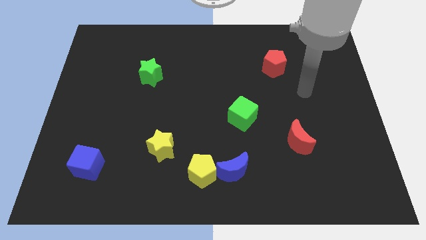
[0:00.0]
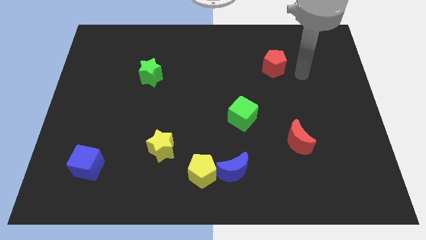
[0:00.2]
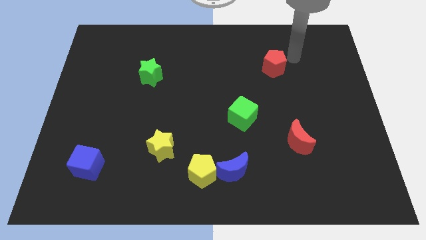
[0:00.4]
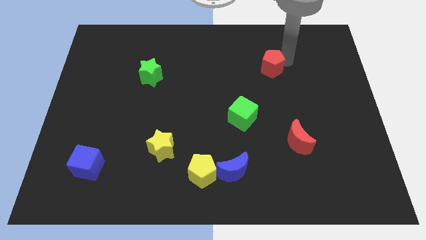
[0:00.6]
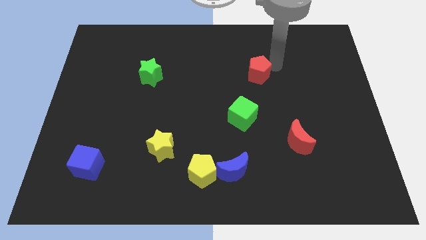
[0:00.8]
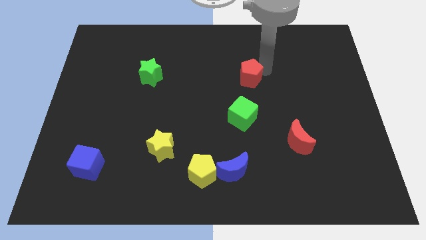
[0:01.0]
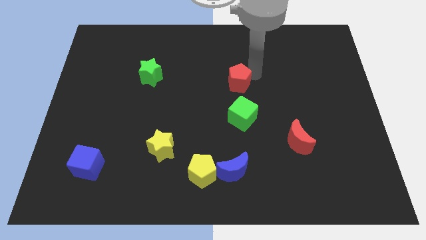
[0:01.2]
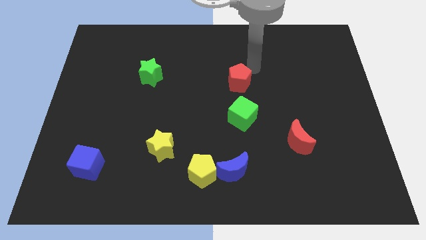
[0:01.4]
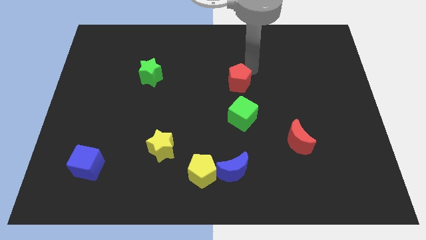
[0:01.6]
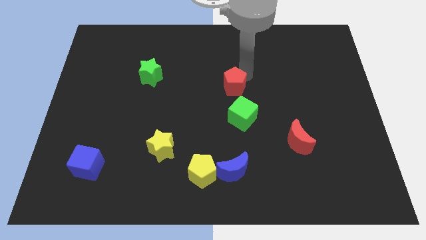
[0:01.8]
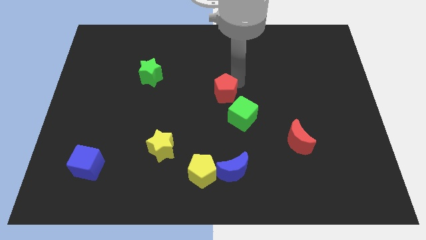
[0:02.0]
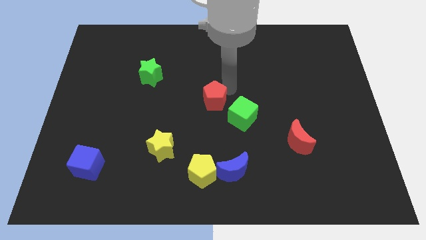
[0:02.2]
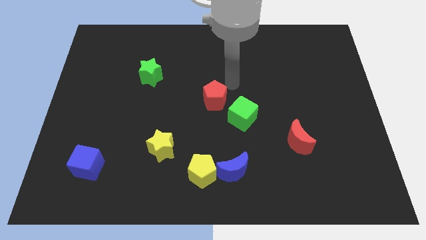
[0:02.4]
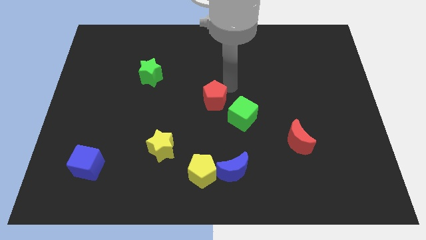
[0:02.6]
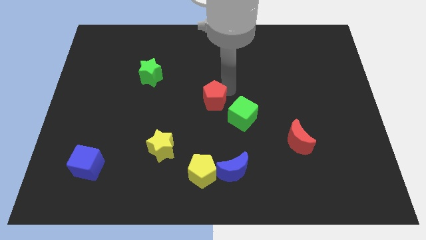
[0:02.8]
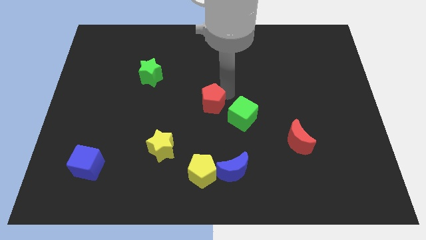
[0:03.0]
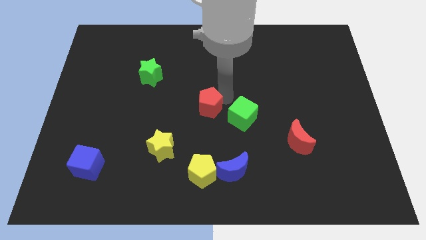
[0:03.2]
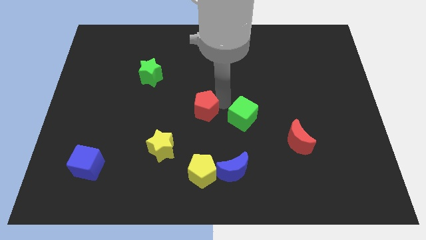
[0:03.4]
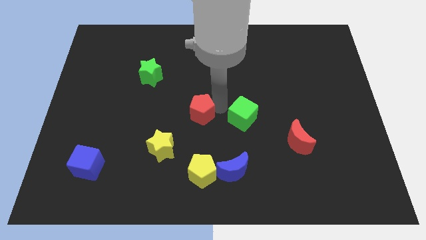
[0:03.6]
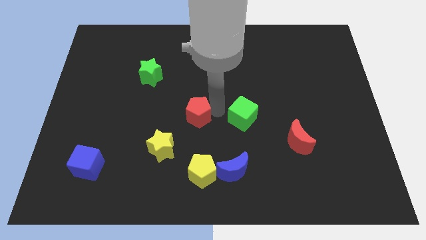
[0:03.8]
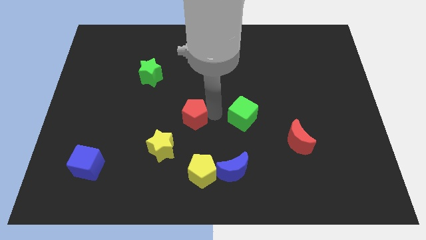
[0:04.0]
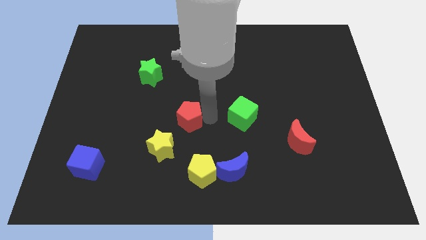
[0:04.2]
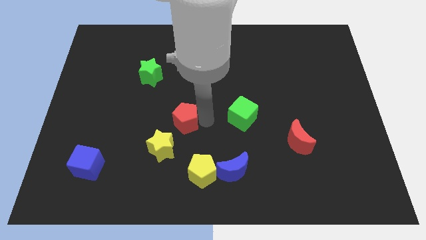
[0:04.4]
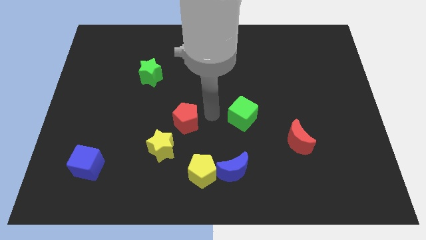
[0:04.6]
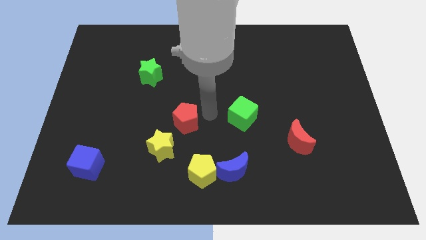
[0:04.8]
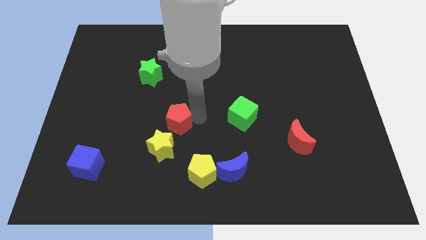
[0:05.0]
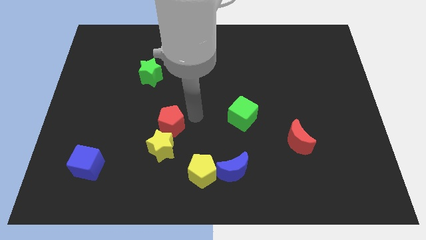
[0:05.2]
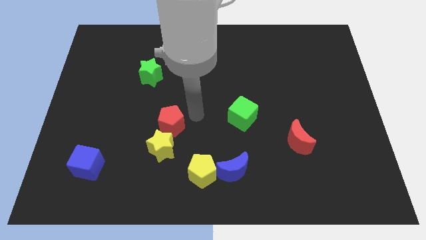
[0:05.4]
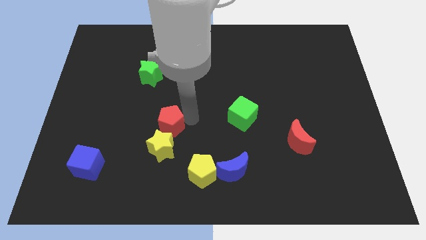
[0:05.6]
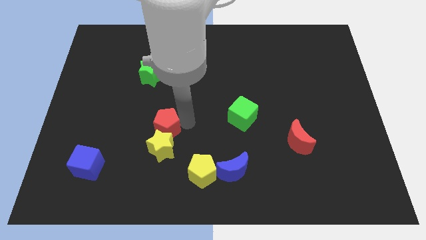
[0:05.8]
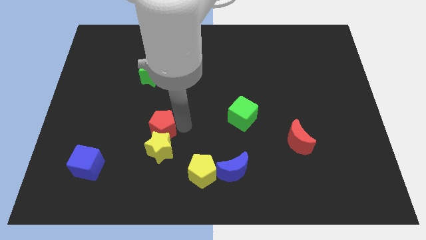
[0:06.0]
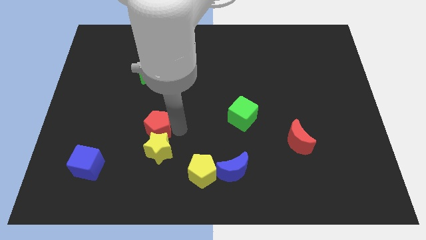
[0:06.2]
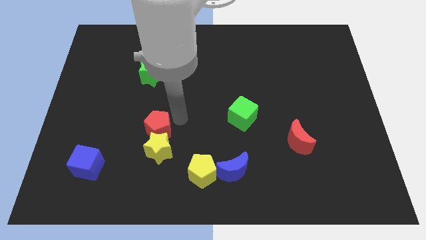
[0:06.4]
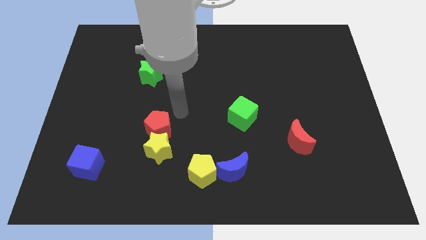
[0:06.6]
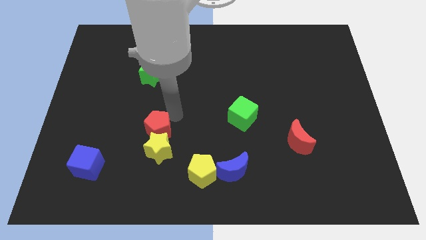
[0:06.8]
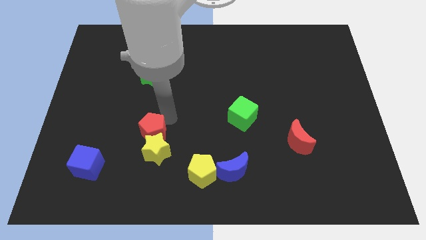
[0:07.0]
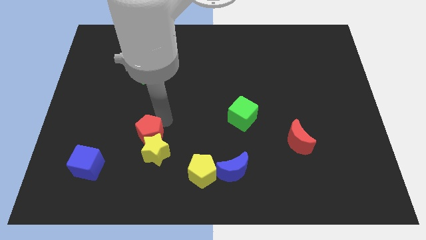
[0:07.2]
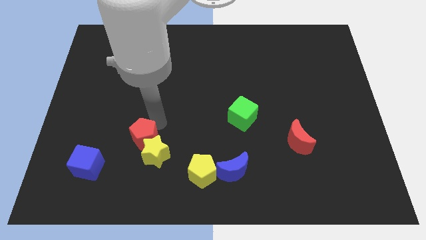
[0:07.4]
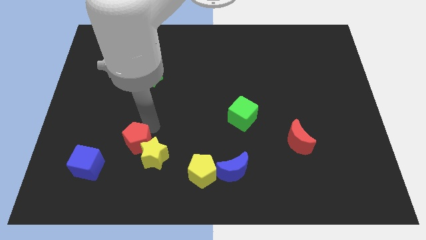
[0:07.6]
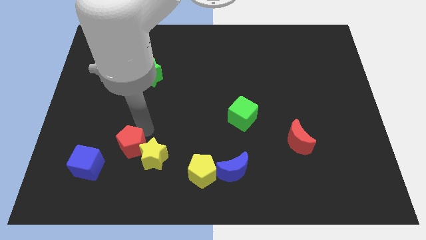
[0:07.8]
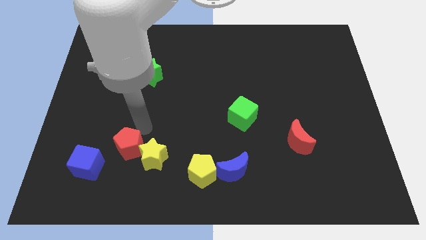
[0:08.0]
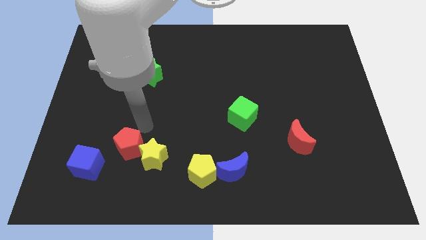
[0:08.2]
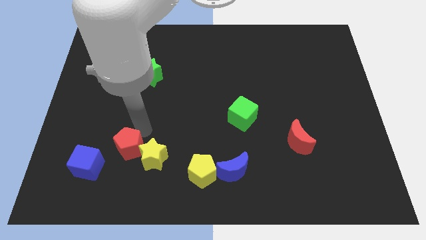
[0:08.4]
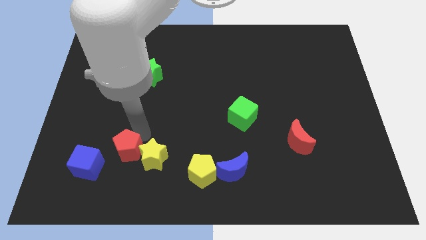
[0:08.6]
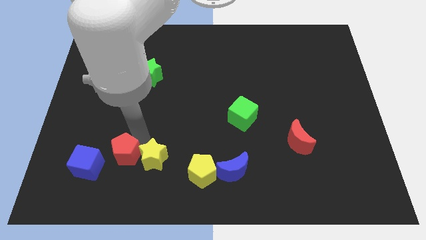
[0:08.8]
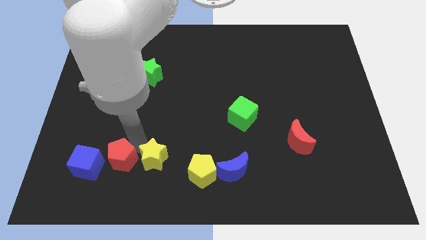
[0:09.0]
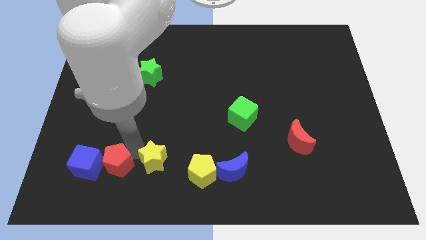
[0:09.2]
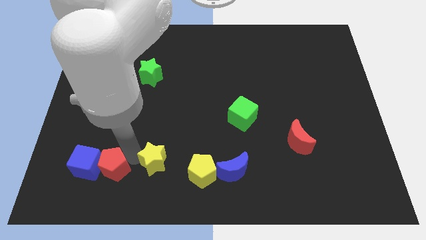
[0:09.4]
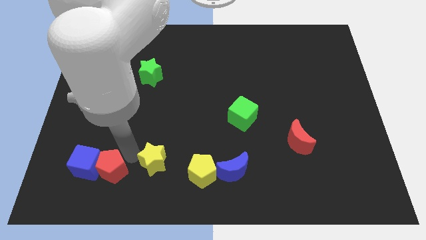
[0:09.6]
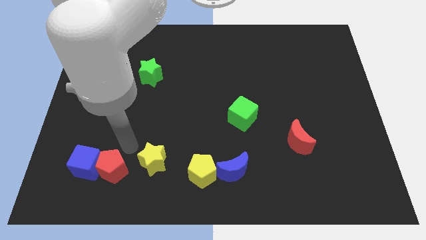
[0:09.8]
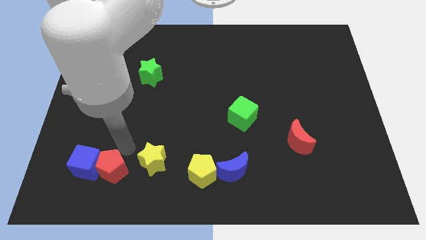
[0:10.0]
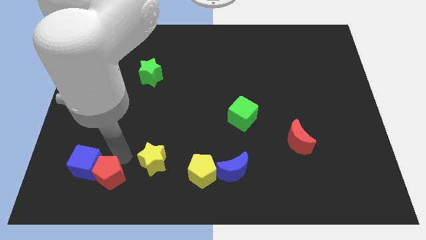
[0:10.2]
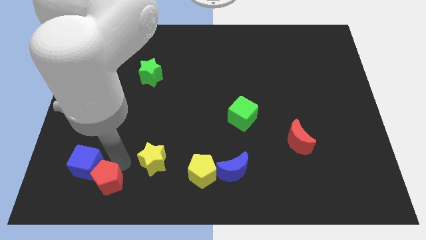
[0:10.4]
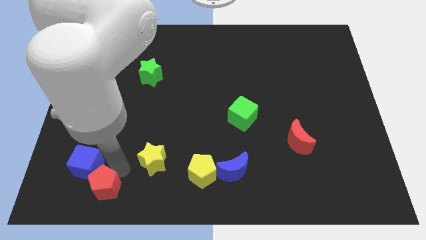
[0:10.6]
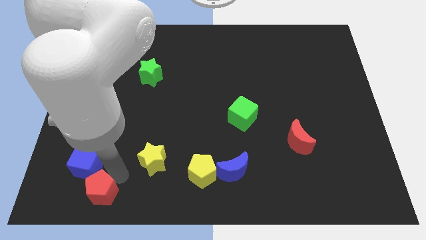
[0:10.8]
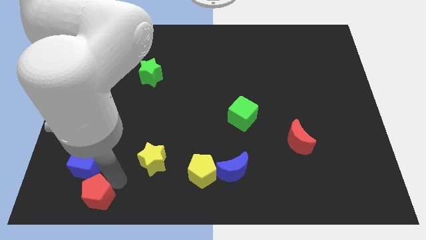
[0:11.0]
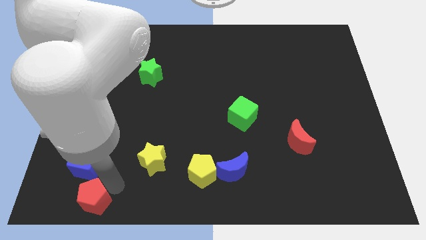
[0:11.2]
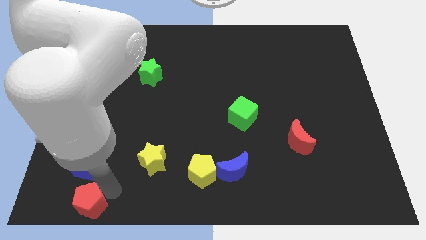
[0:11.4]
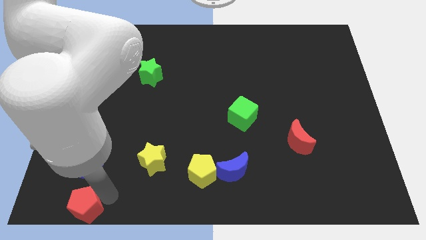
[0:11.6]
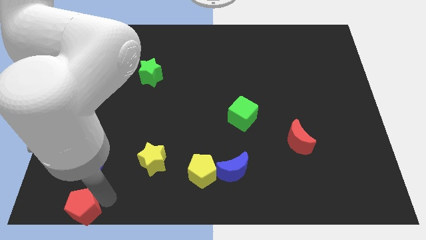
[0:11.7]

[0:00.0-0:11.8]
push the red pentagon to the bottom left
